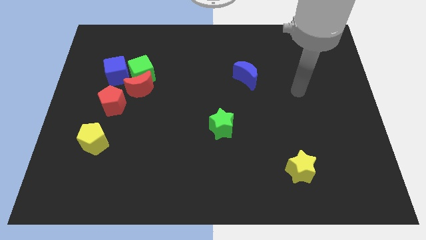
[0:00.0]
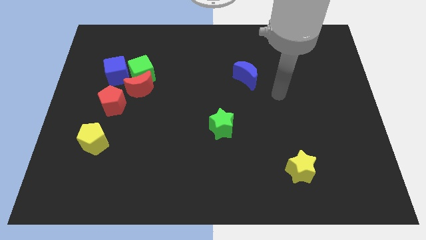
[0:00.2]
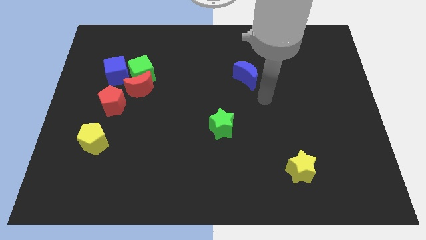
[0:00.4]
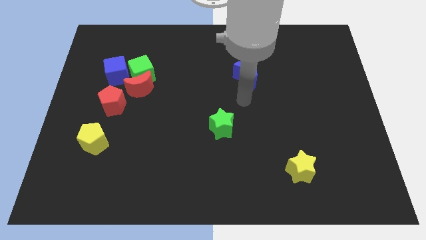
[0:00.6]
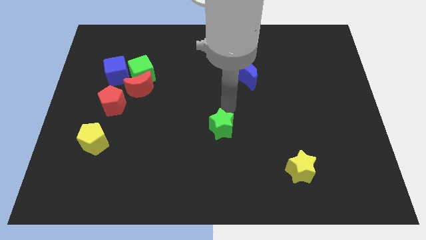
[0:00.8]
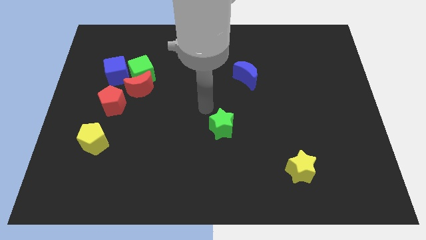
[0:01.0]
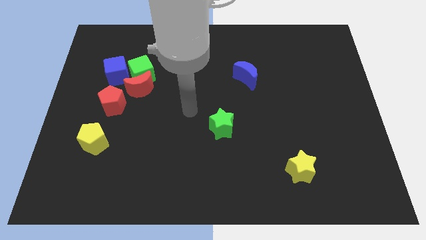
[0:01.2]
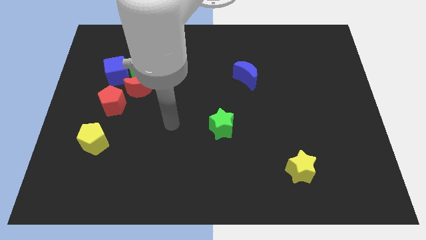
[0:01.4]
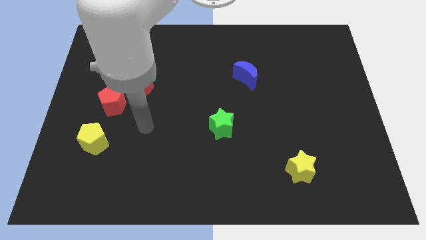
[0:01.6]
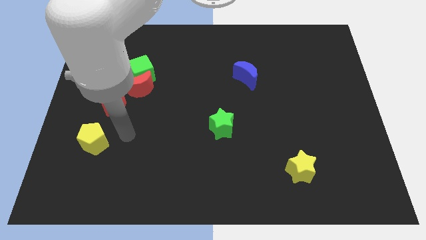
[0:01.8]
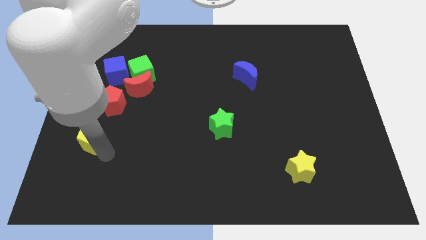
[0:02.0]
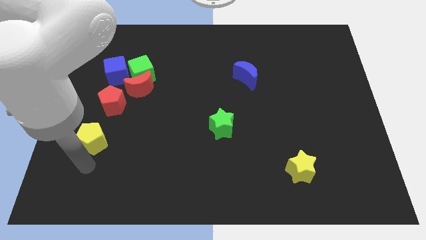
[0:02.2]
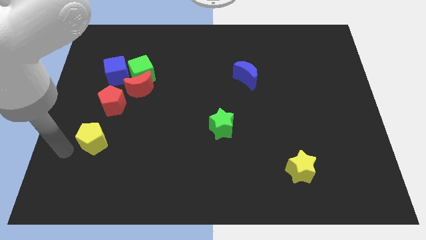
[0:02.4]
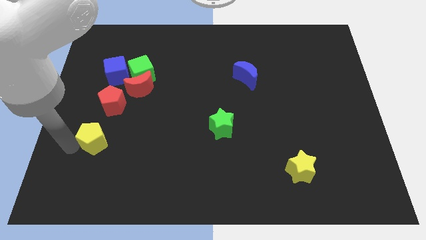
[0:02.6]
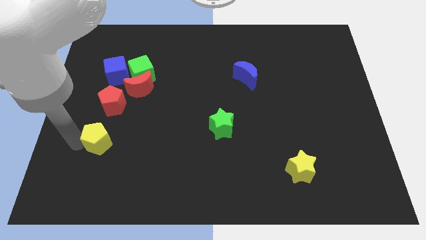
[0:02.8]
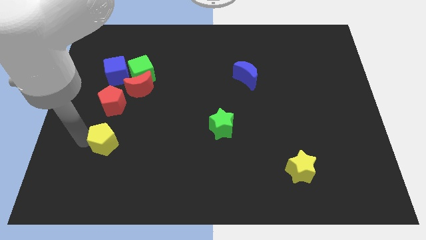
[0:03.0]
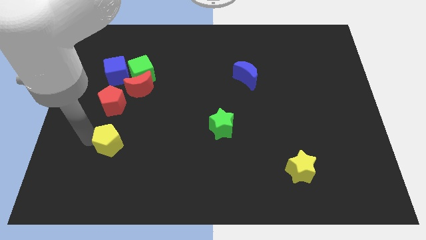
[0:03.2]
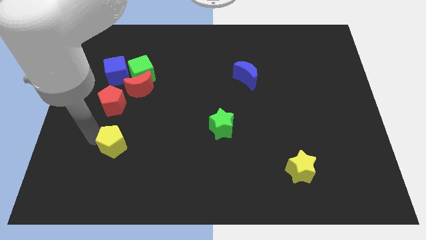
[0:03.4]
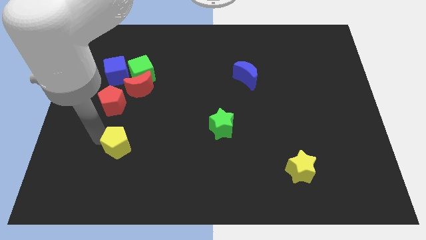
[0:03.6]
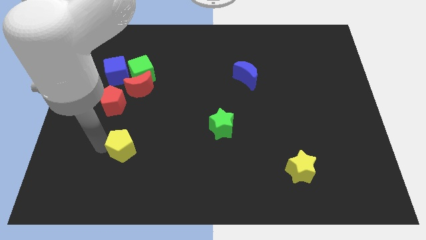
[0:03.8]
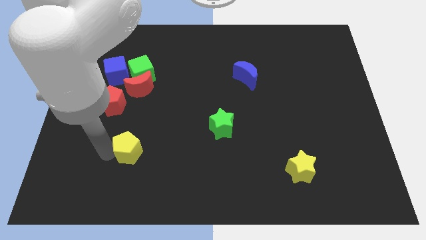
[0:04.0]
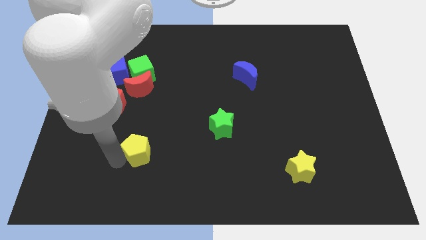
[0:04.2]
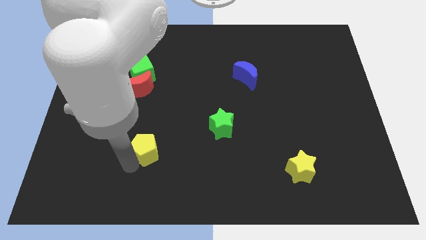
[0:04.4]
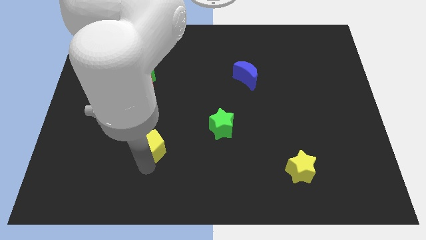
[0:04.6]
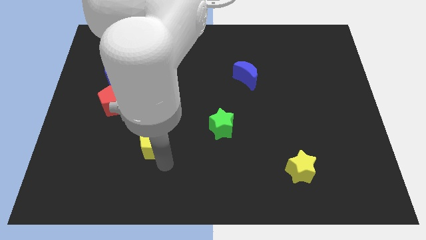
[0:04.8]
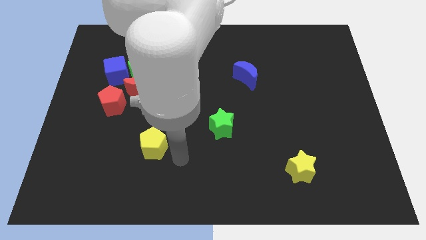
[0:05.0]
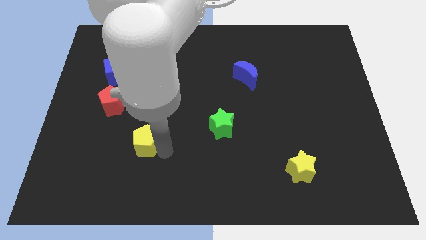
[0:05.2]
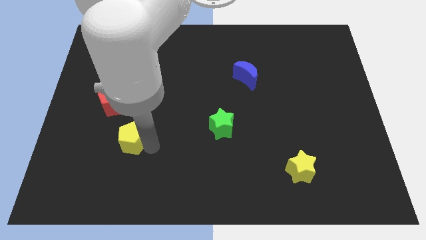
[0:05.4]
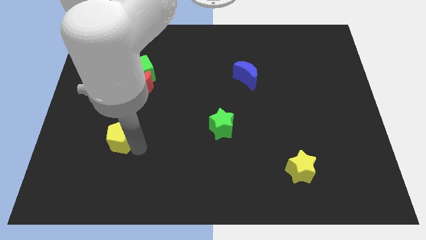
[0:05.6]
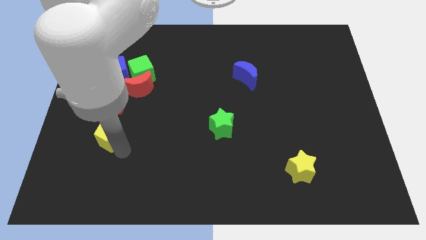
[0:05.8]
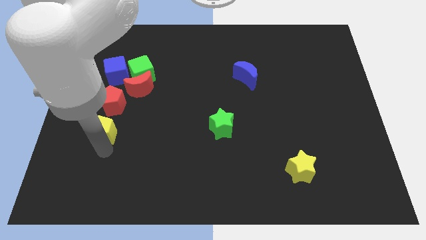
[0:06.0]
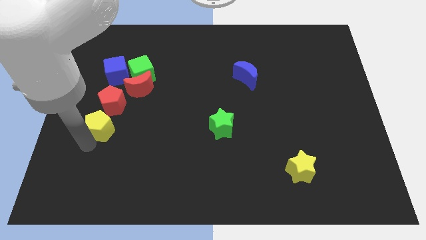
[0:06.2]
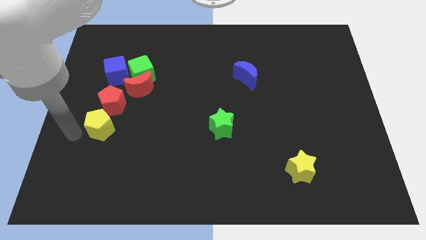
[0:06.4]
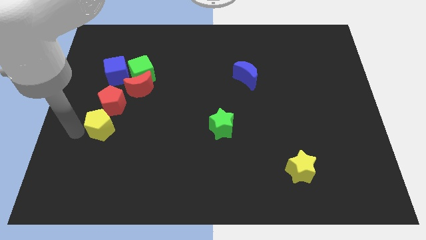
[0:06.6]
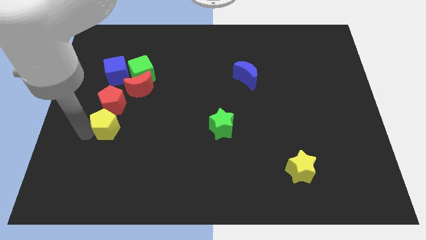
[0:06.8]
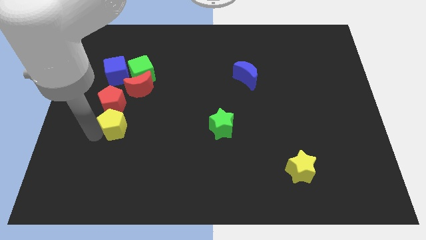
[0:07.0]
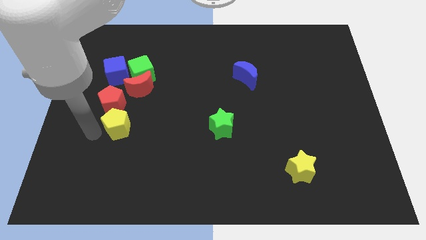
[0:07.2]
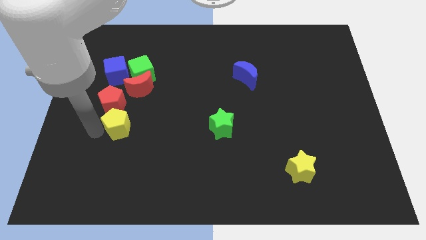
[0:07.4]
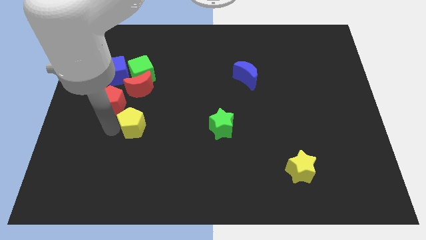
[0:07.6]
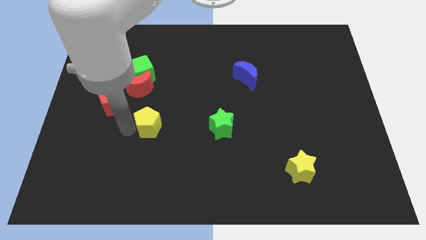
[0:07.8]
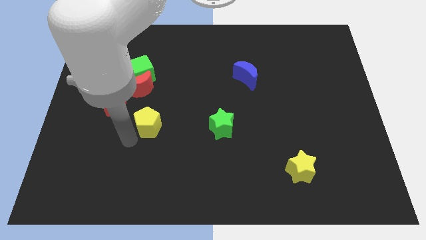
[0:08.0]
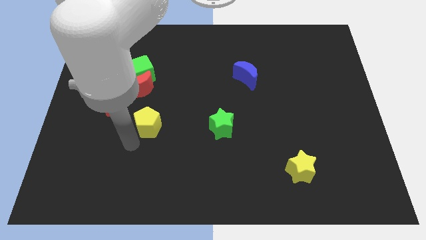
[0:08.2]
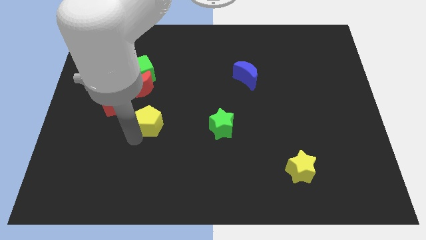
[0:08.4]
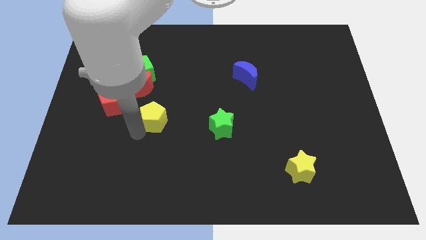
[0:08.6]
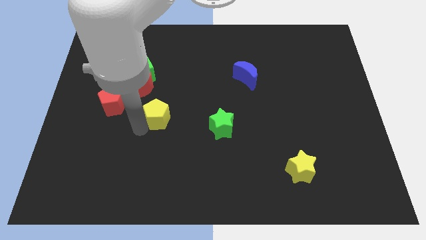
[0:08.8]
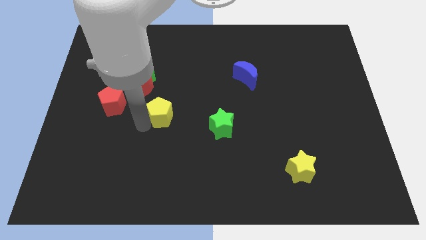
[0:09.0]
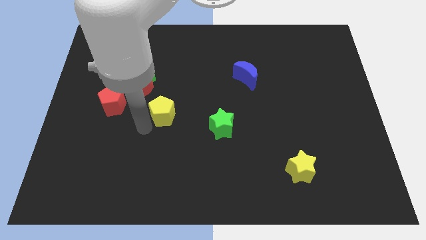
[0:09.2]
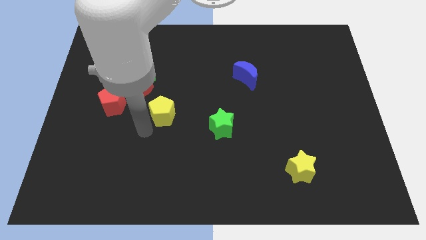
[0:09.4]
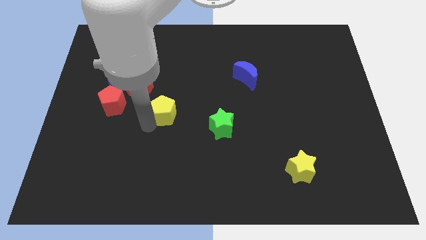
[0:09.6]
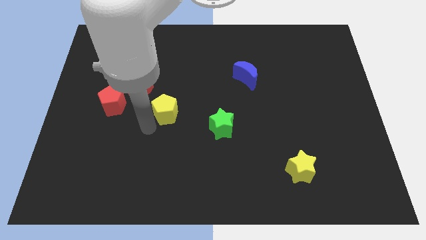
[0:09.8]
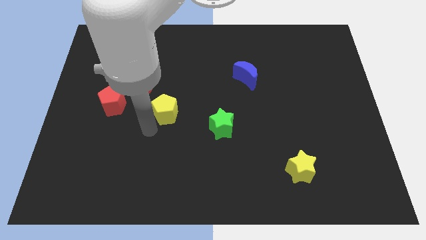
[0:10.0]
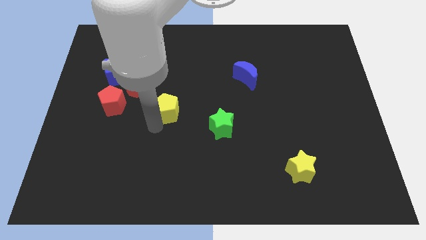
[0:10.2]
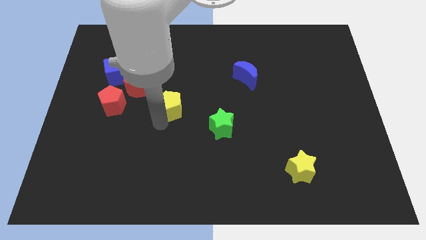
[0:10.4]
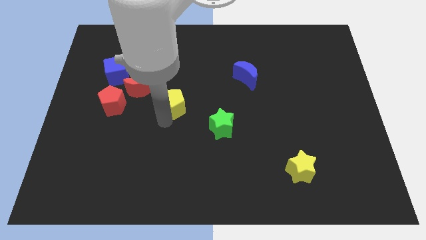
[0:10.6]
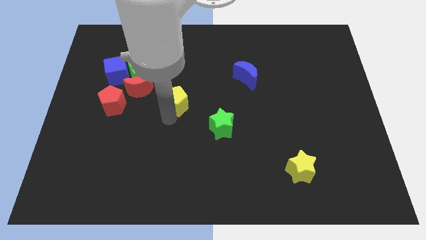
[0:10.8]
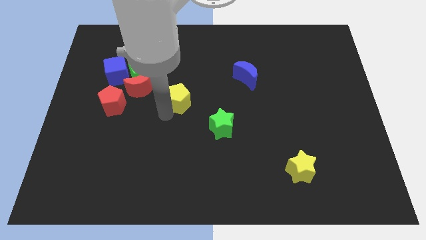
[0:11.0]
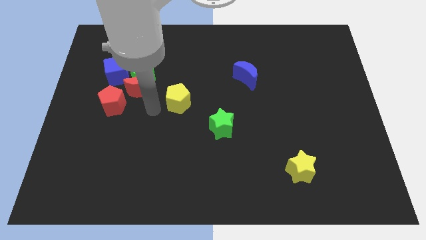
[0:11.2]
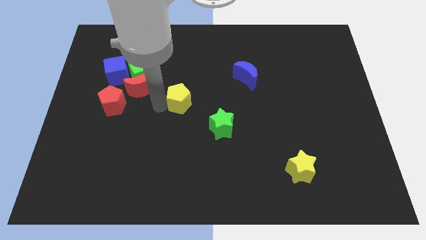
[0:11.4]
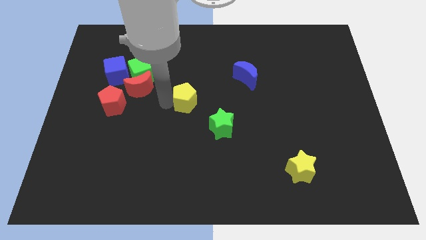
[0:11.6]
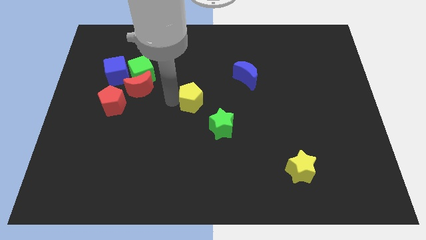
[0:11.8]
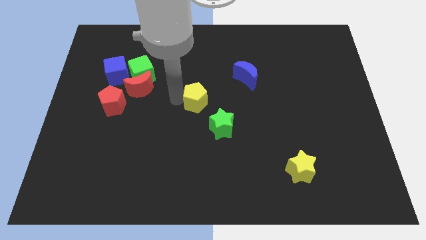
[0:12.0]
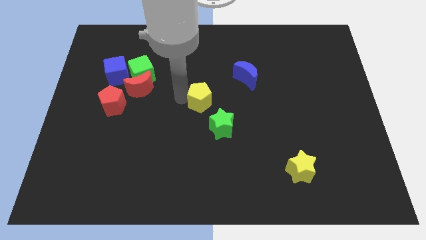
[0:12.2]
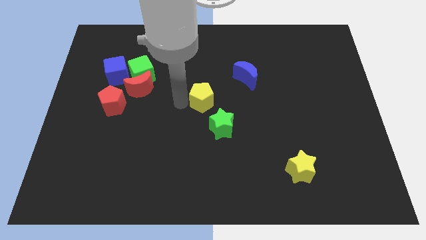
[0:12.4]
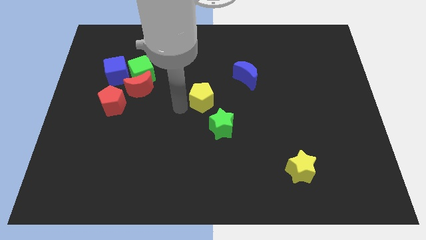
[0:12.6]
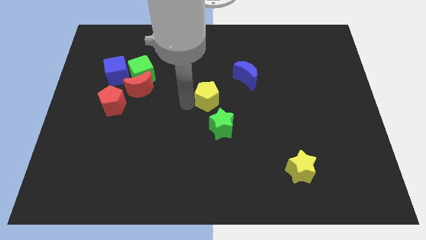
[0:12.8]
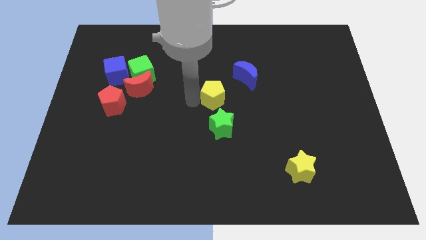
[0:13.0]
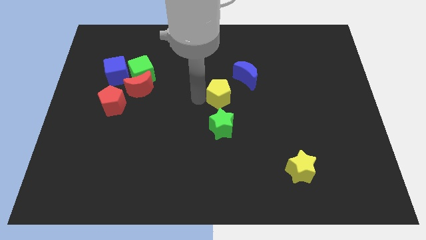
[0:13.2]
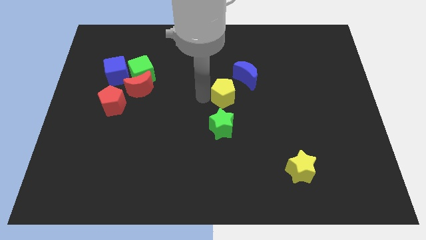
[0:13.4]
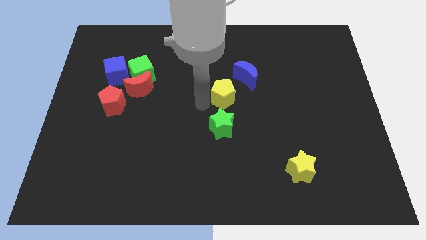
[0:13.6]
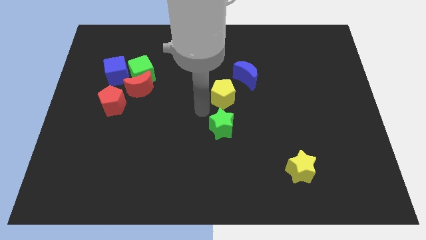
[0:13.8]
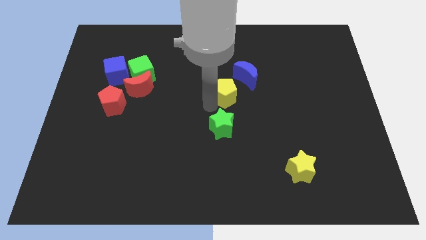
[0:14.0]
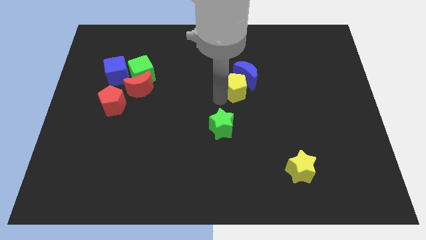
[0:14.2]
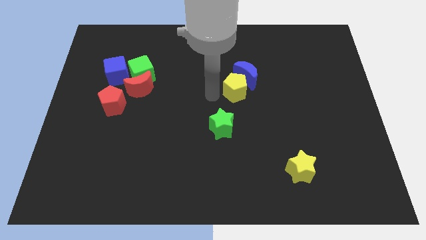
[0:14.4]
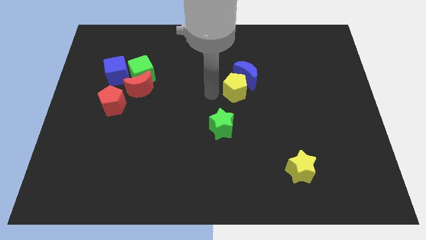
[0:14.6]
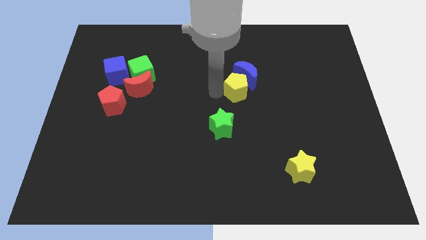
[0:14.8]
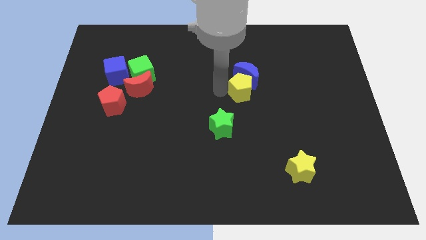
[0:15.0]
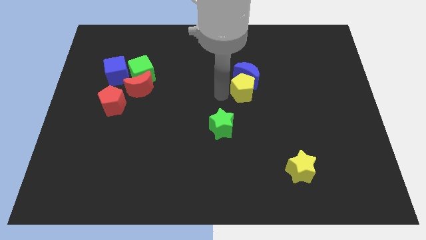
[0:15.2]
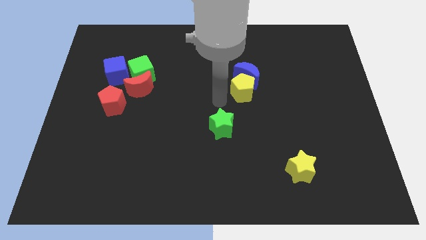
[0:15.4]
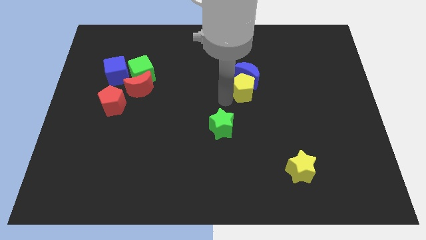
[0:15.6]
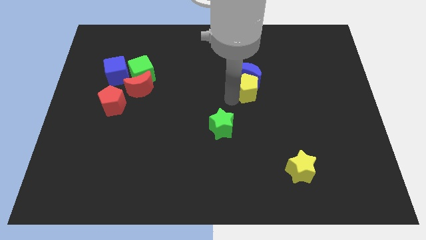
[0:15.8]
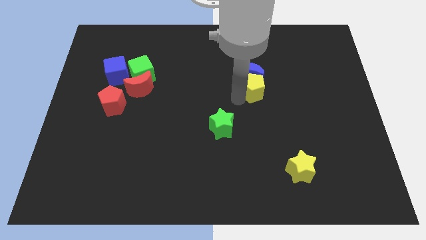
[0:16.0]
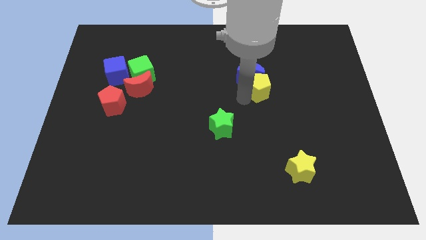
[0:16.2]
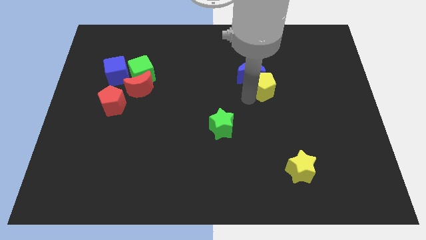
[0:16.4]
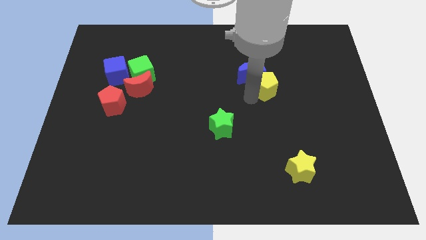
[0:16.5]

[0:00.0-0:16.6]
put the yellow pentagon to the right side of the blue moon
